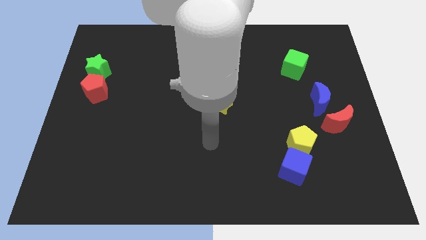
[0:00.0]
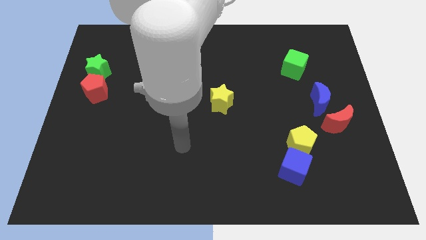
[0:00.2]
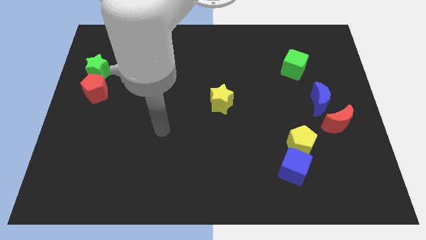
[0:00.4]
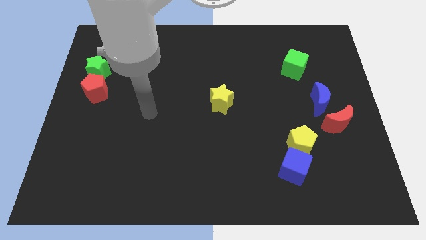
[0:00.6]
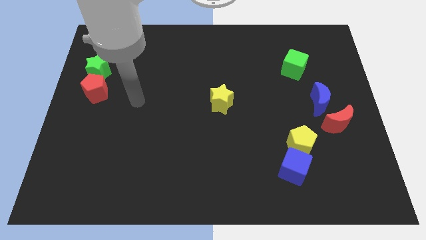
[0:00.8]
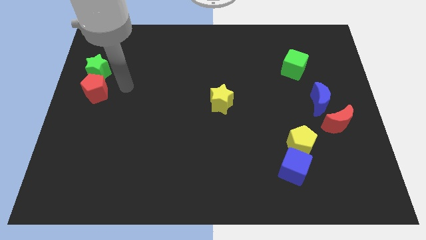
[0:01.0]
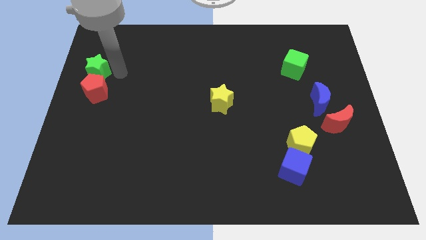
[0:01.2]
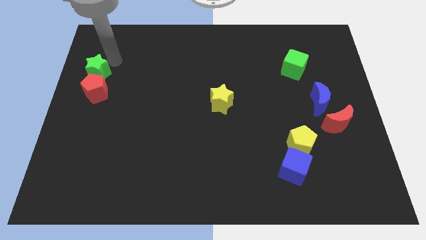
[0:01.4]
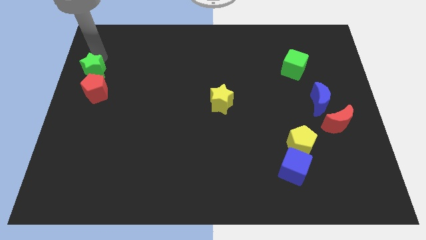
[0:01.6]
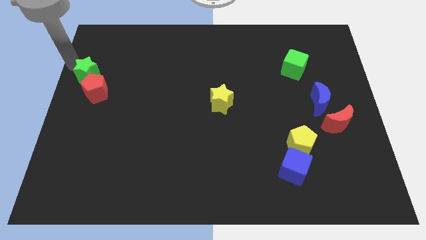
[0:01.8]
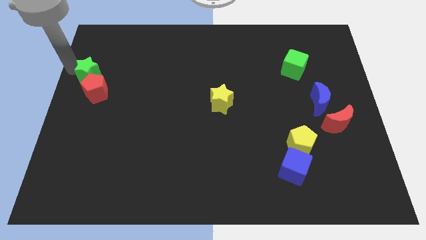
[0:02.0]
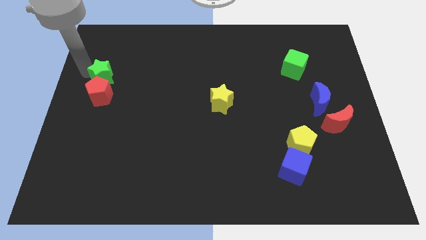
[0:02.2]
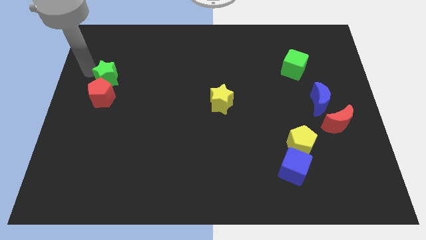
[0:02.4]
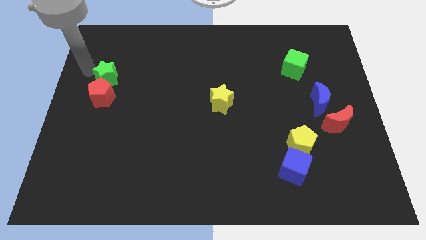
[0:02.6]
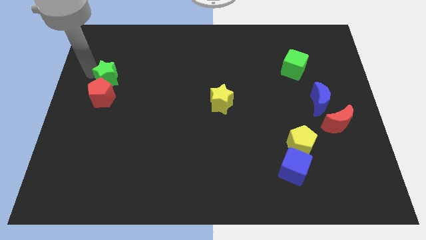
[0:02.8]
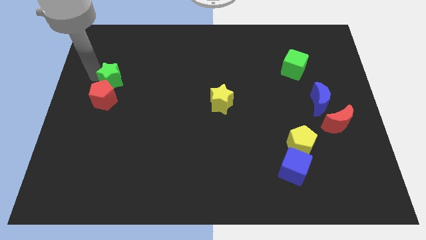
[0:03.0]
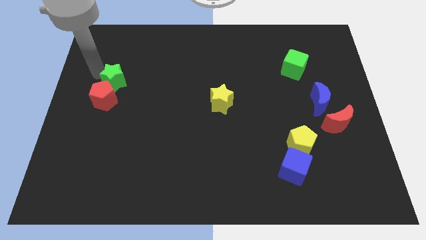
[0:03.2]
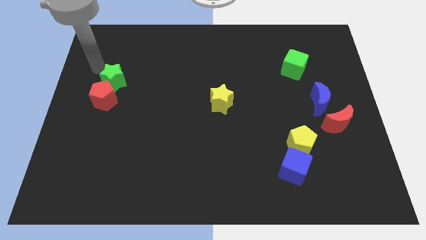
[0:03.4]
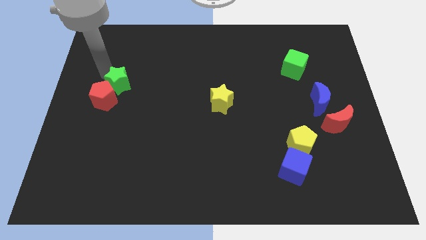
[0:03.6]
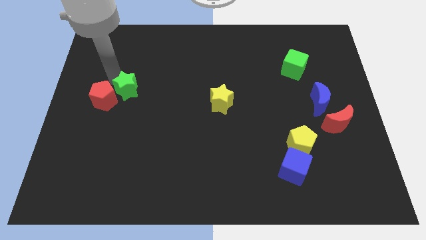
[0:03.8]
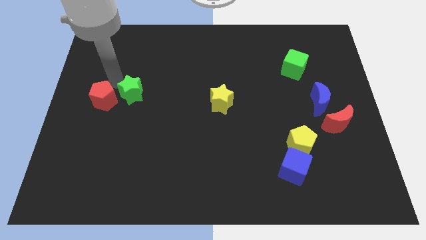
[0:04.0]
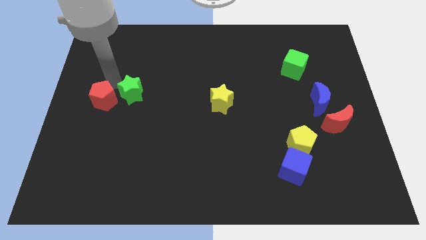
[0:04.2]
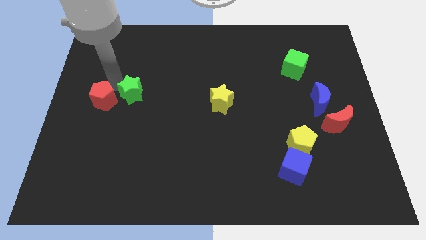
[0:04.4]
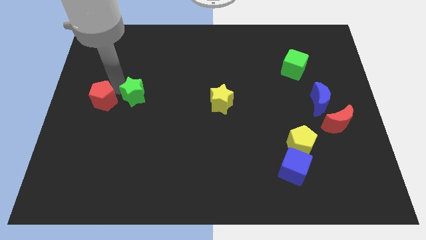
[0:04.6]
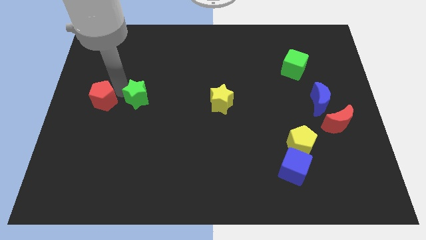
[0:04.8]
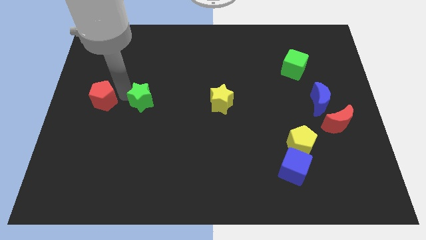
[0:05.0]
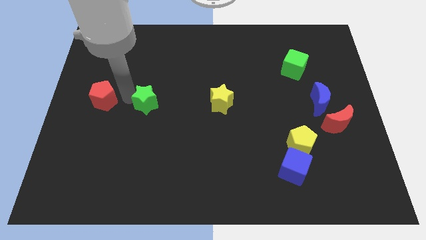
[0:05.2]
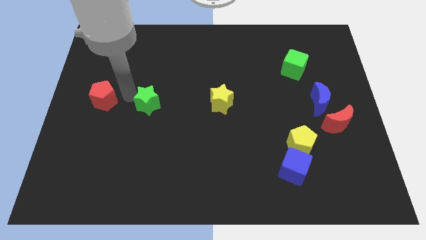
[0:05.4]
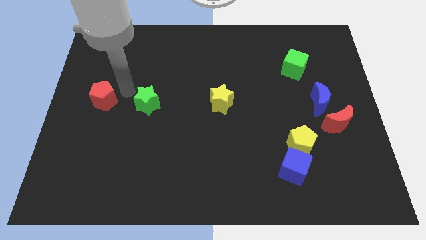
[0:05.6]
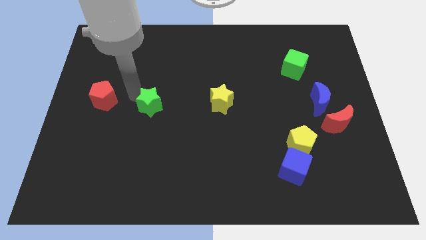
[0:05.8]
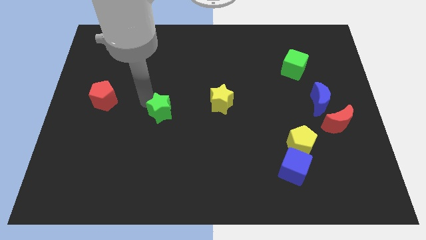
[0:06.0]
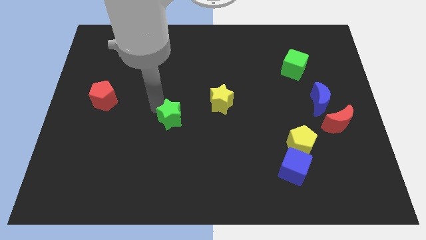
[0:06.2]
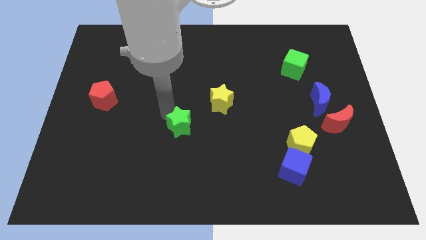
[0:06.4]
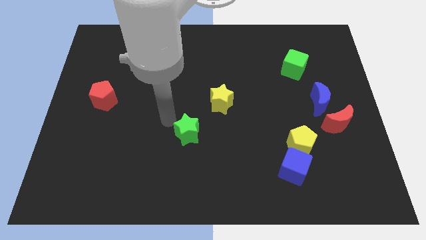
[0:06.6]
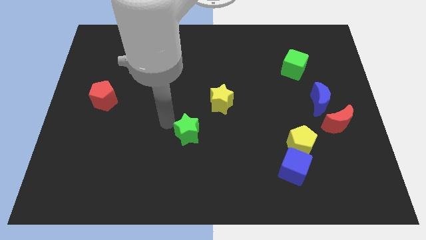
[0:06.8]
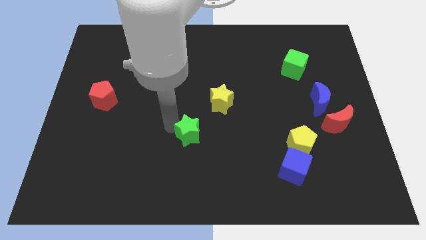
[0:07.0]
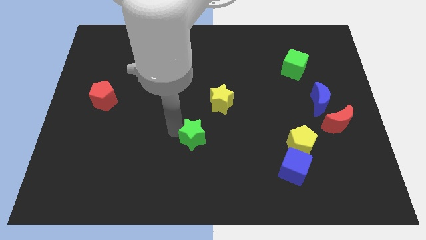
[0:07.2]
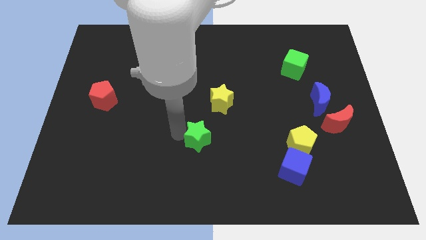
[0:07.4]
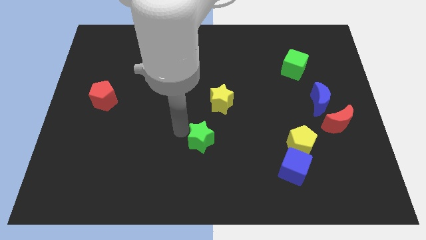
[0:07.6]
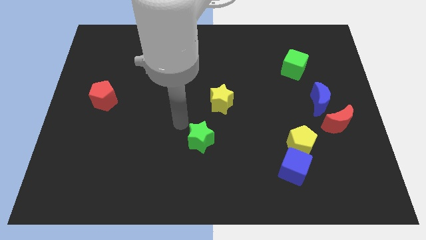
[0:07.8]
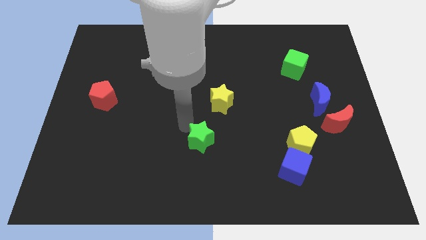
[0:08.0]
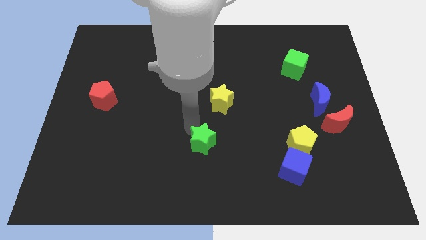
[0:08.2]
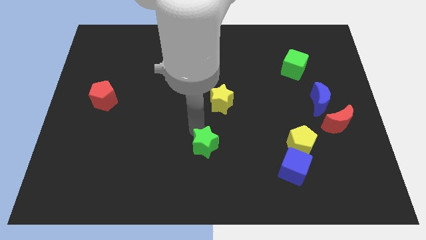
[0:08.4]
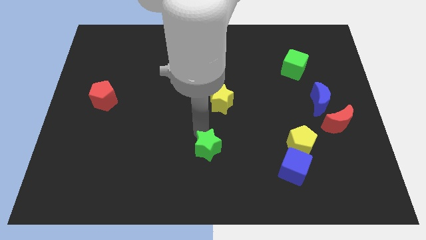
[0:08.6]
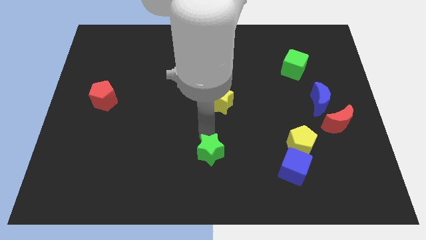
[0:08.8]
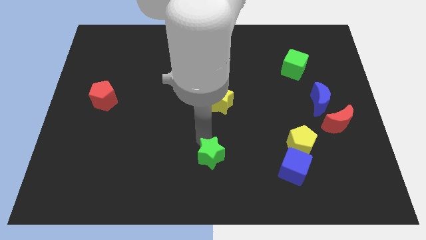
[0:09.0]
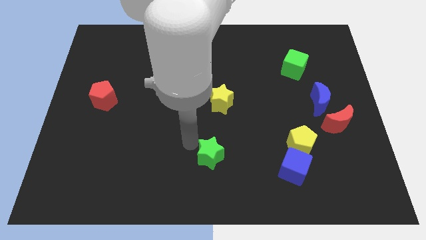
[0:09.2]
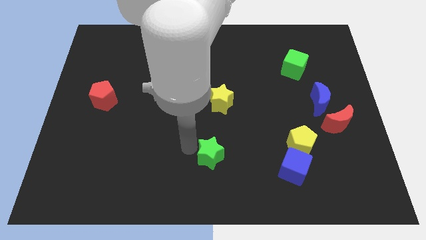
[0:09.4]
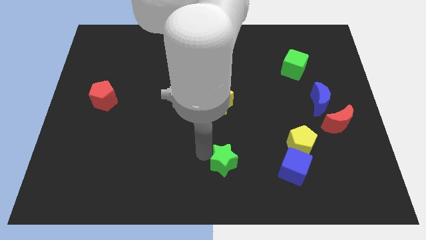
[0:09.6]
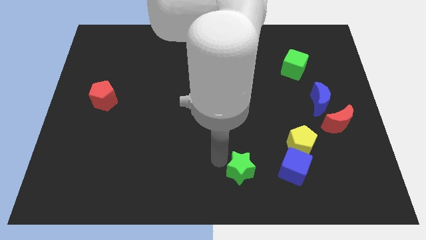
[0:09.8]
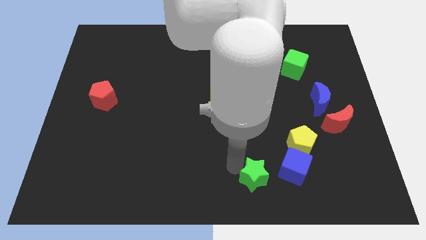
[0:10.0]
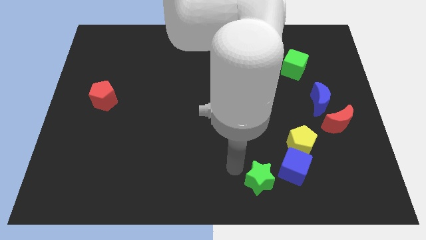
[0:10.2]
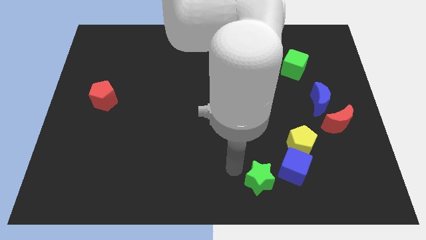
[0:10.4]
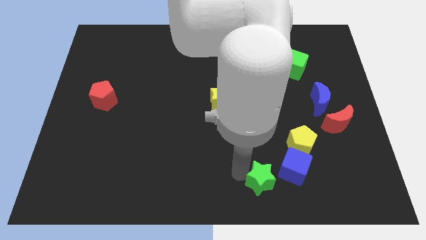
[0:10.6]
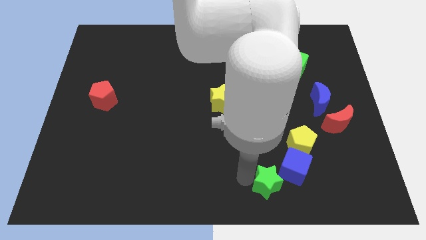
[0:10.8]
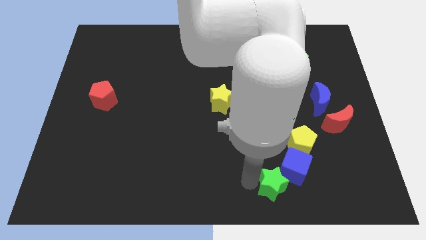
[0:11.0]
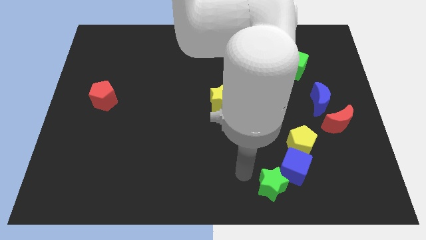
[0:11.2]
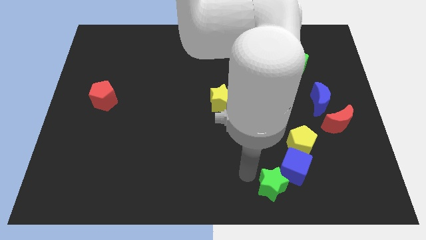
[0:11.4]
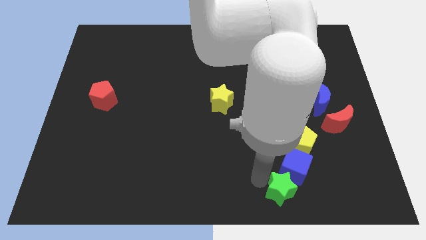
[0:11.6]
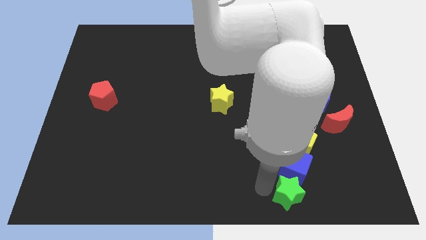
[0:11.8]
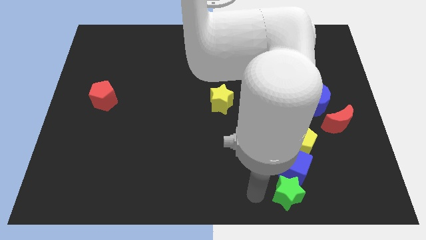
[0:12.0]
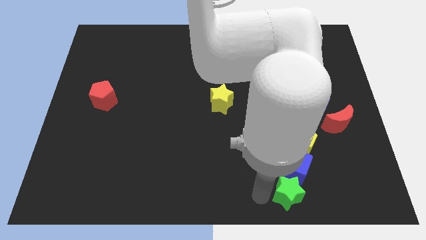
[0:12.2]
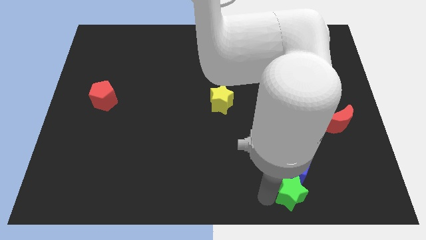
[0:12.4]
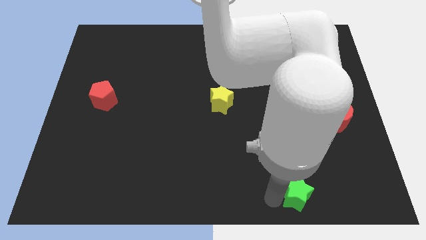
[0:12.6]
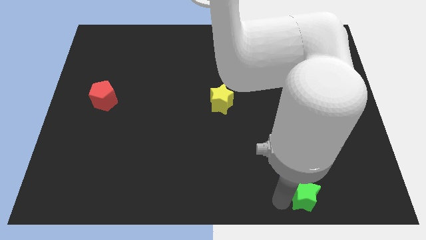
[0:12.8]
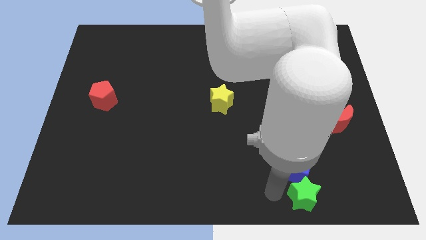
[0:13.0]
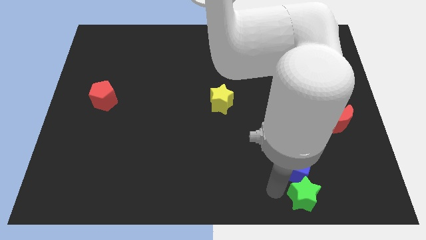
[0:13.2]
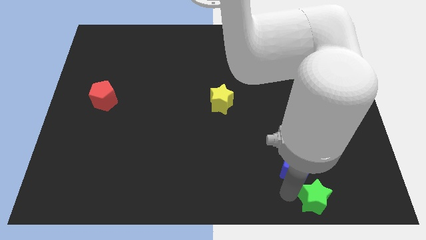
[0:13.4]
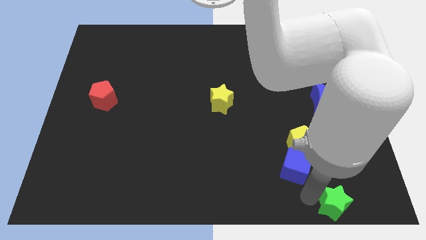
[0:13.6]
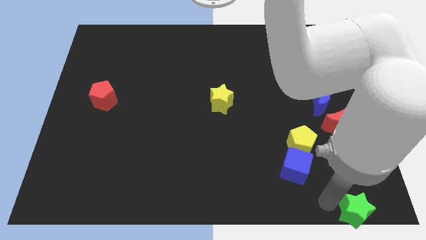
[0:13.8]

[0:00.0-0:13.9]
slide the green star to the bottom right of the board
